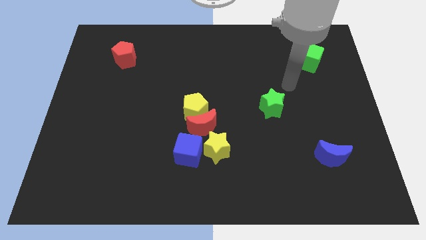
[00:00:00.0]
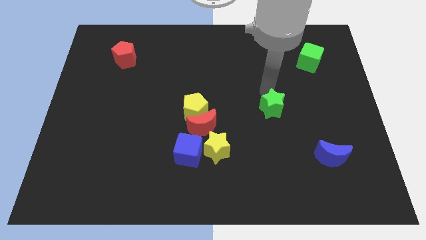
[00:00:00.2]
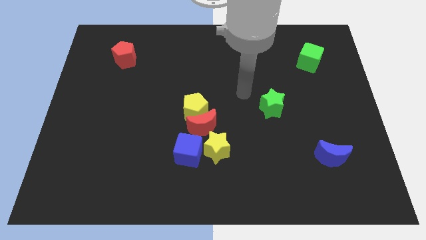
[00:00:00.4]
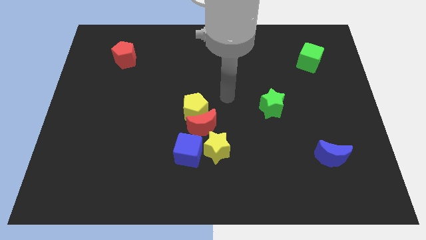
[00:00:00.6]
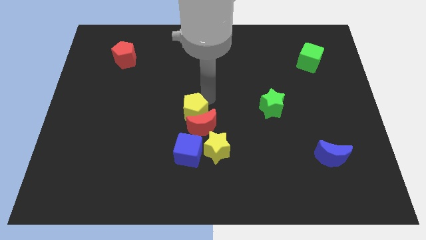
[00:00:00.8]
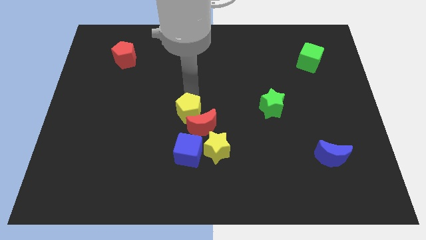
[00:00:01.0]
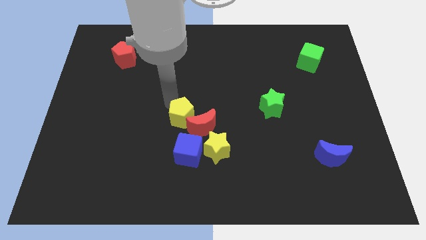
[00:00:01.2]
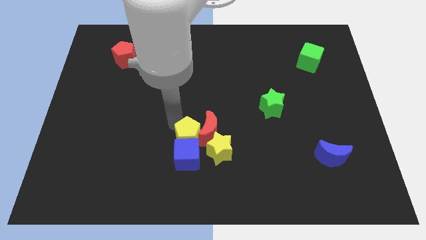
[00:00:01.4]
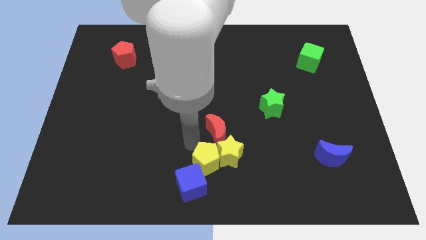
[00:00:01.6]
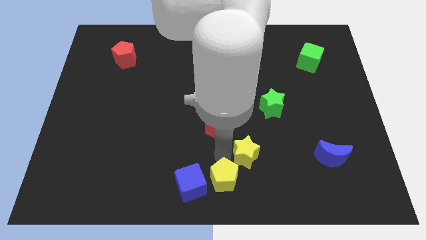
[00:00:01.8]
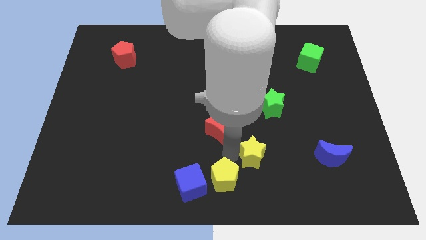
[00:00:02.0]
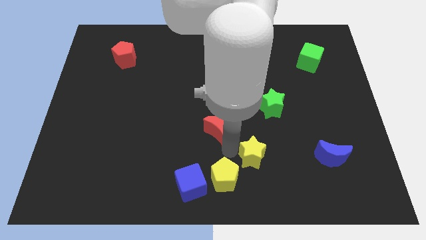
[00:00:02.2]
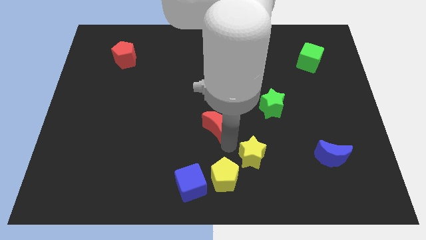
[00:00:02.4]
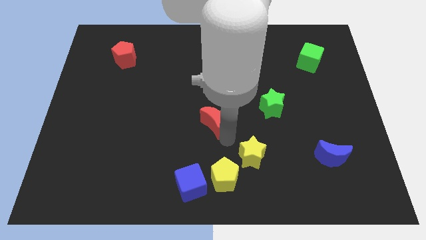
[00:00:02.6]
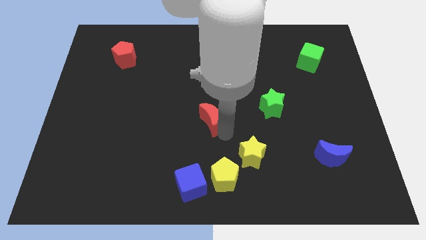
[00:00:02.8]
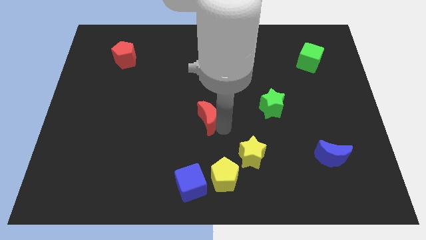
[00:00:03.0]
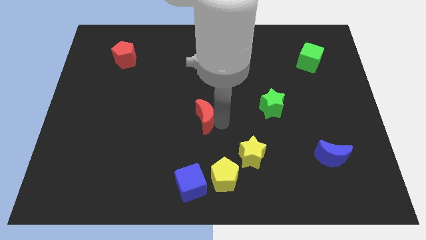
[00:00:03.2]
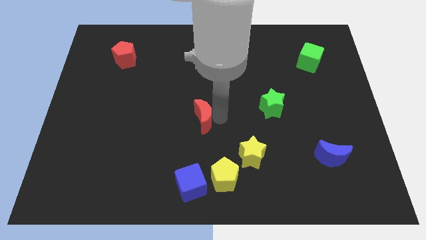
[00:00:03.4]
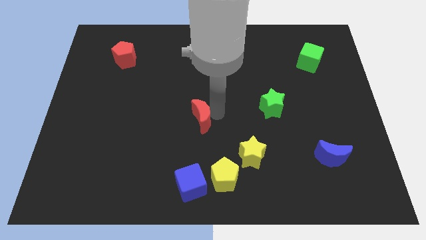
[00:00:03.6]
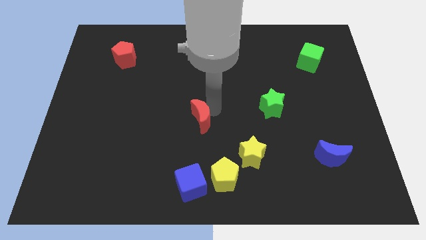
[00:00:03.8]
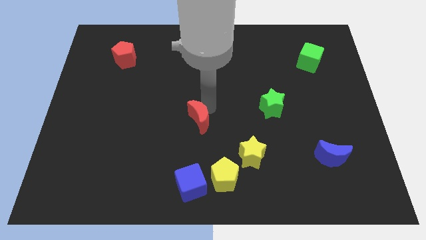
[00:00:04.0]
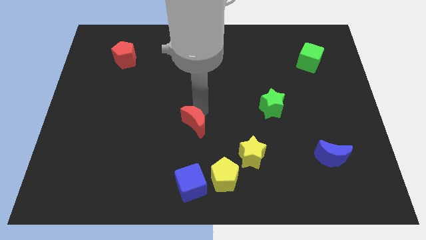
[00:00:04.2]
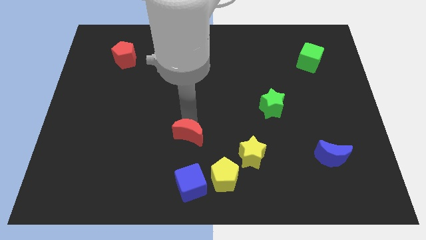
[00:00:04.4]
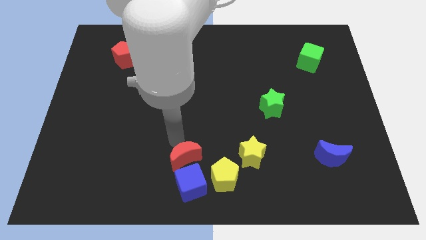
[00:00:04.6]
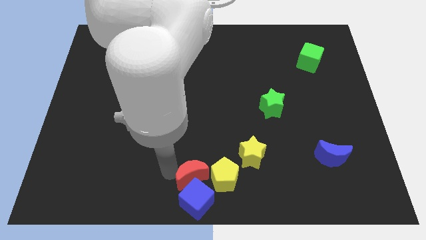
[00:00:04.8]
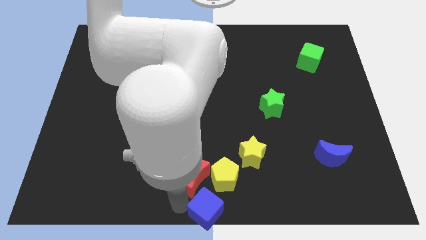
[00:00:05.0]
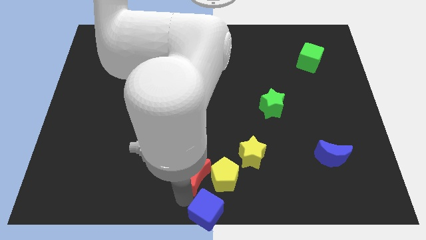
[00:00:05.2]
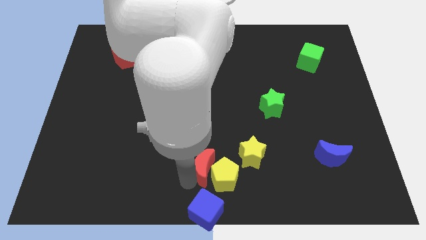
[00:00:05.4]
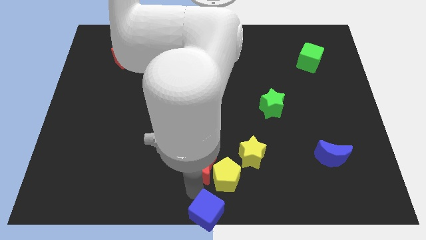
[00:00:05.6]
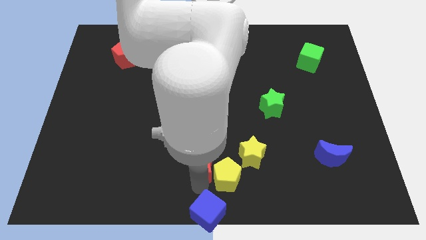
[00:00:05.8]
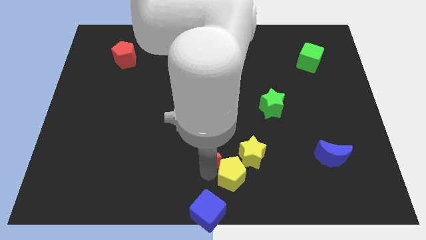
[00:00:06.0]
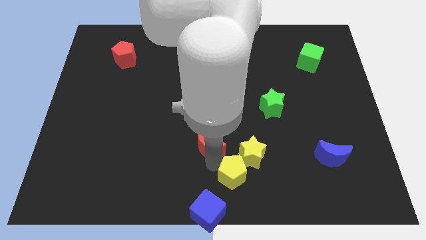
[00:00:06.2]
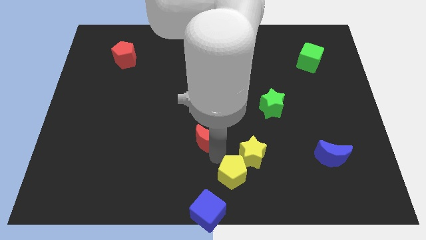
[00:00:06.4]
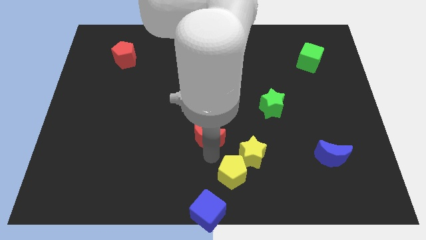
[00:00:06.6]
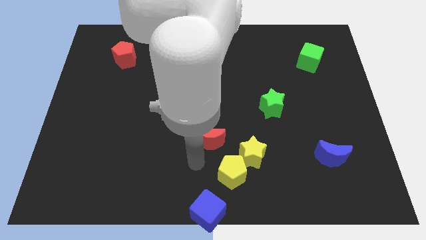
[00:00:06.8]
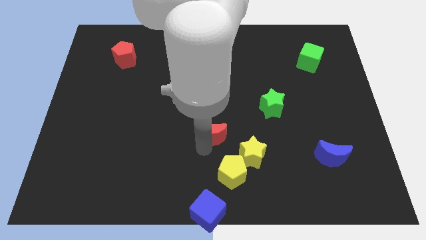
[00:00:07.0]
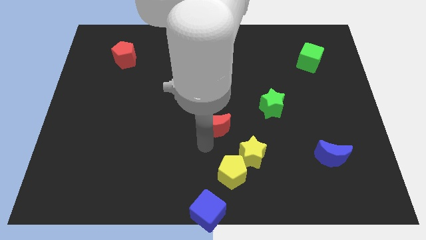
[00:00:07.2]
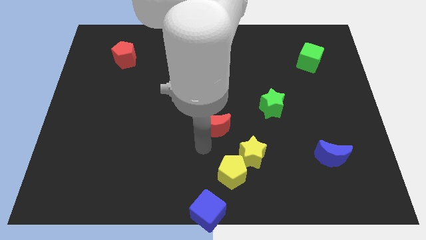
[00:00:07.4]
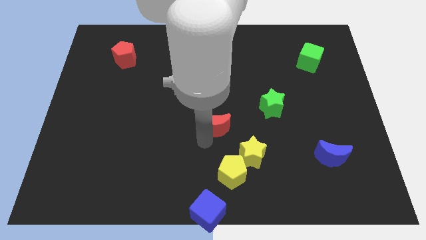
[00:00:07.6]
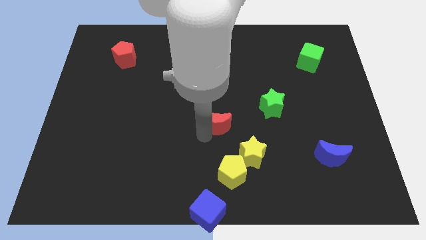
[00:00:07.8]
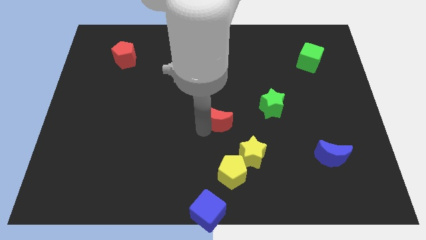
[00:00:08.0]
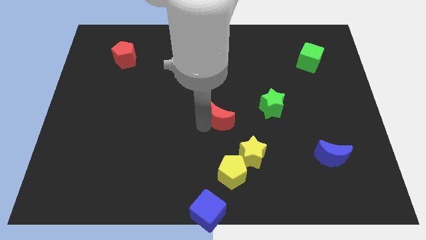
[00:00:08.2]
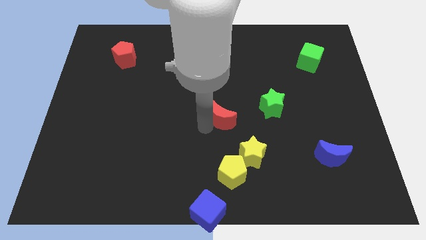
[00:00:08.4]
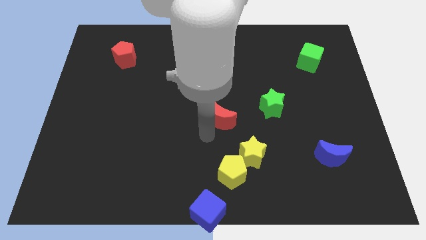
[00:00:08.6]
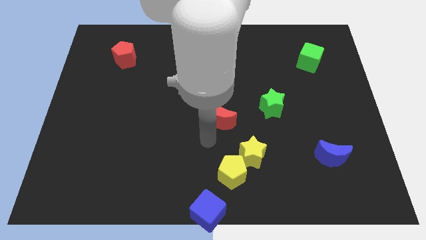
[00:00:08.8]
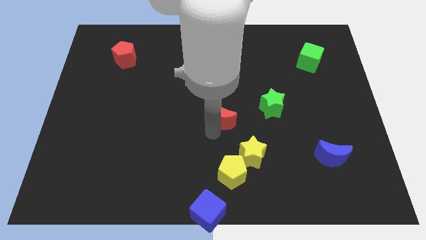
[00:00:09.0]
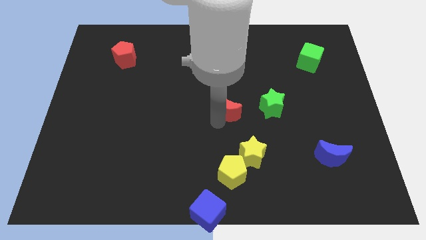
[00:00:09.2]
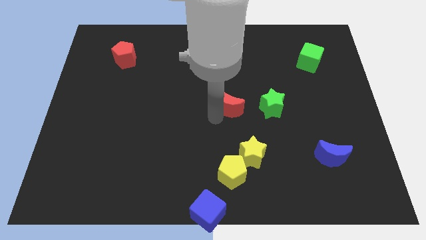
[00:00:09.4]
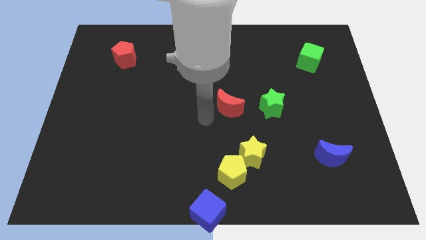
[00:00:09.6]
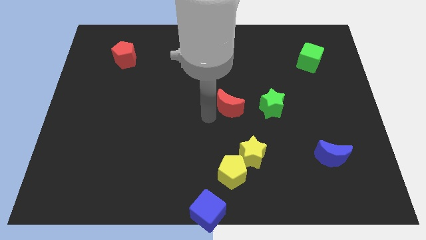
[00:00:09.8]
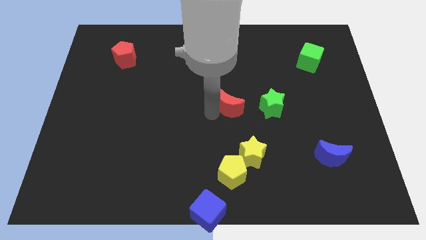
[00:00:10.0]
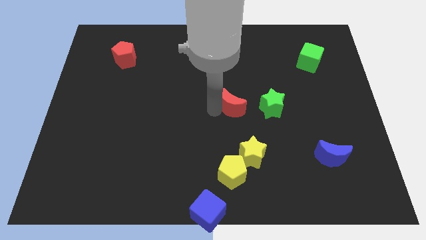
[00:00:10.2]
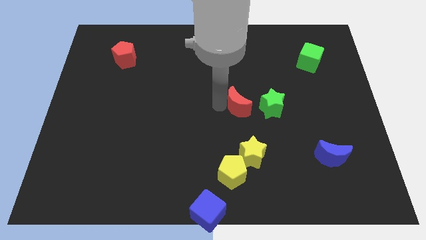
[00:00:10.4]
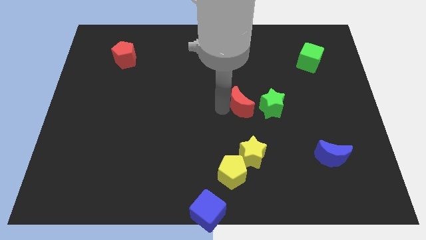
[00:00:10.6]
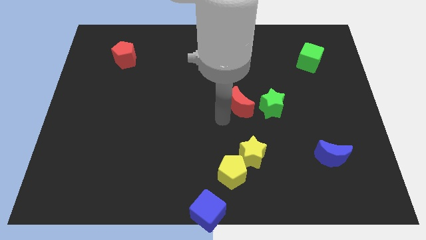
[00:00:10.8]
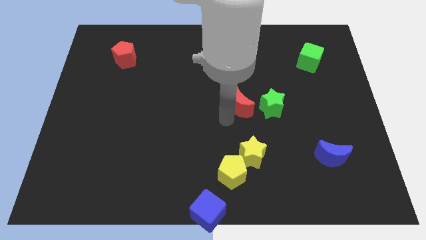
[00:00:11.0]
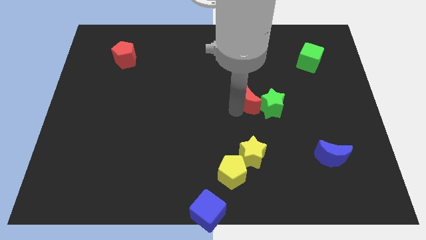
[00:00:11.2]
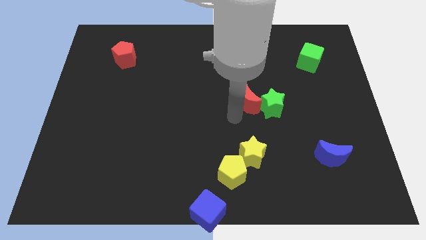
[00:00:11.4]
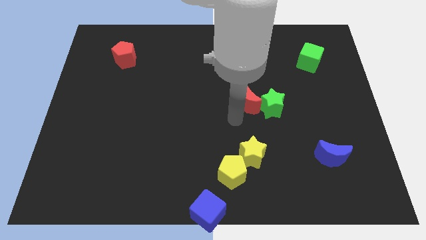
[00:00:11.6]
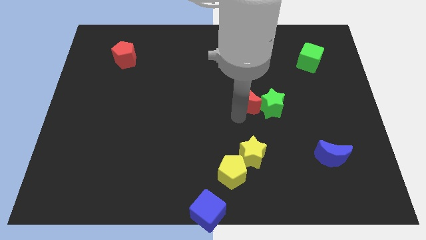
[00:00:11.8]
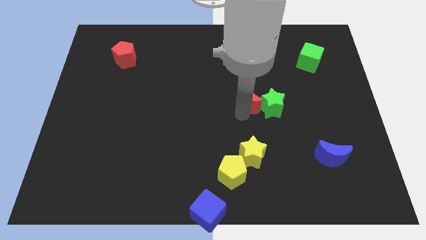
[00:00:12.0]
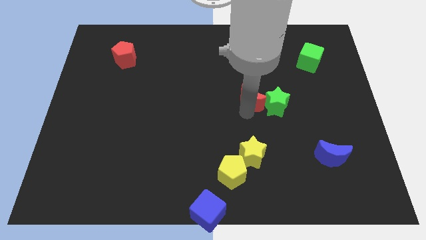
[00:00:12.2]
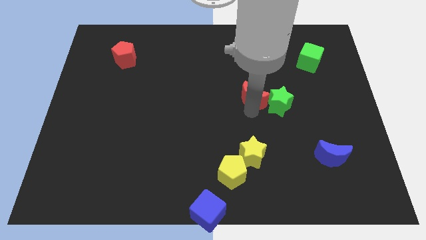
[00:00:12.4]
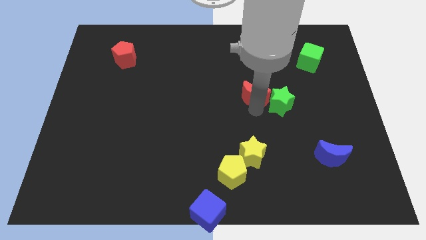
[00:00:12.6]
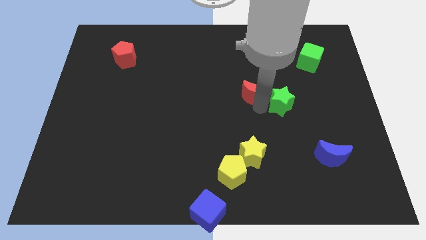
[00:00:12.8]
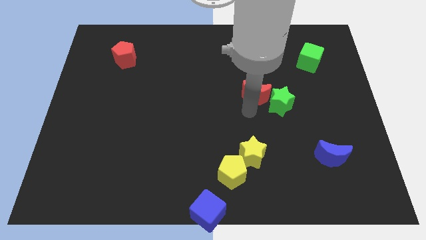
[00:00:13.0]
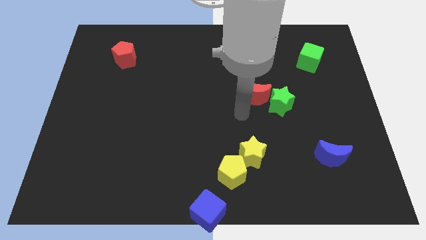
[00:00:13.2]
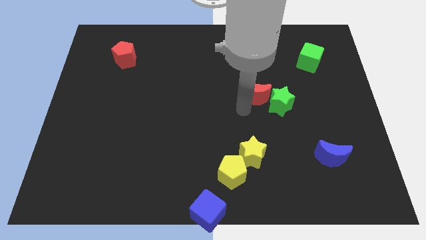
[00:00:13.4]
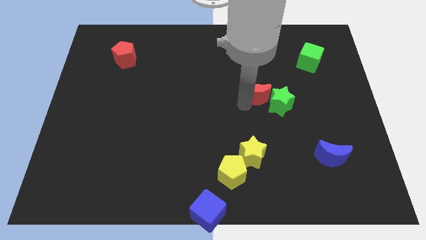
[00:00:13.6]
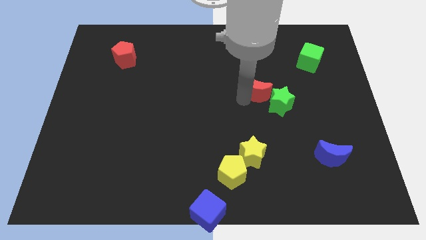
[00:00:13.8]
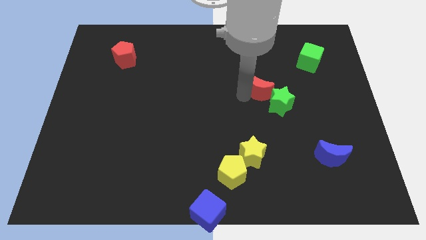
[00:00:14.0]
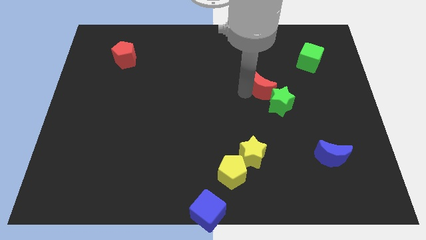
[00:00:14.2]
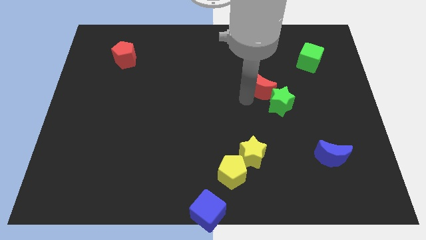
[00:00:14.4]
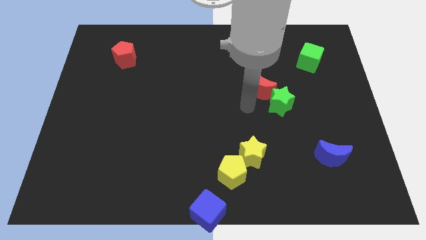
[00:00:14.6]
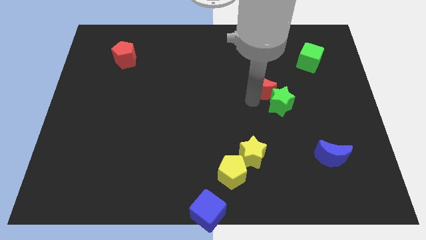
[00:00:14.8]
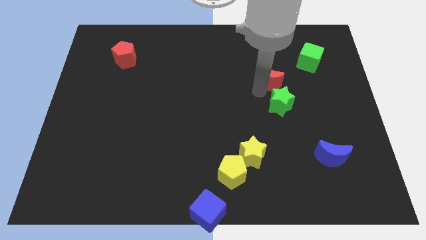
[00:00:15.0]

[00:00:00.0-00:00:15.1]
move the red moon upwards and right diagonally

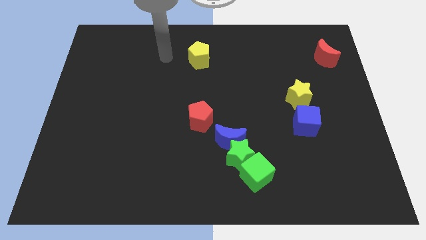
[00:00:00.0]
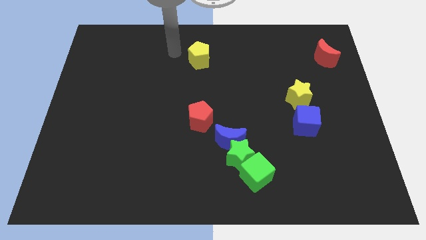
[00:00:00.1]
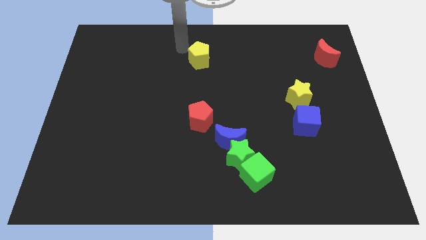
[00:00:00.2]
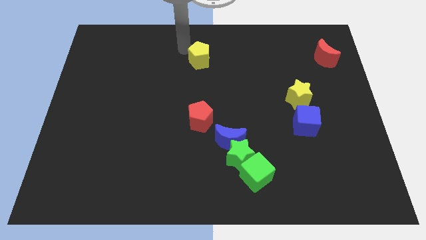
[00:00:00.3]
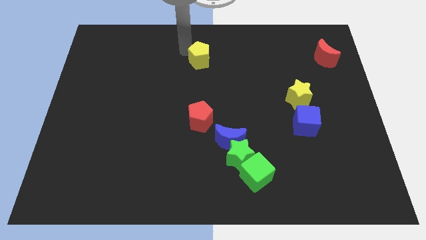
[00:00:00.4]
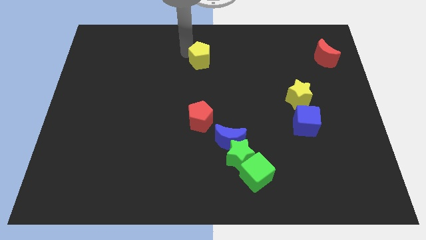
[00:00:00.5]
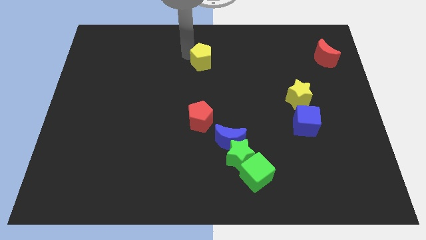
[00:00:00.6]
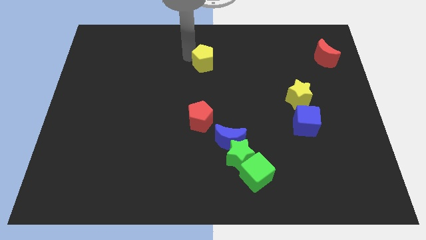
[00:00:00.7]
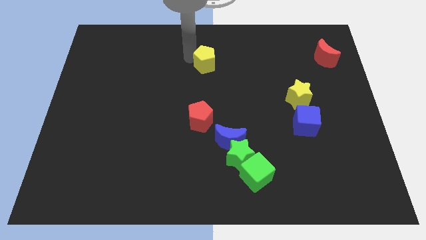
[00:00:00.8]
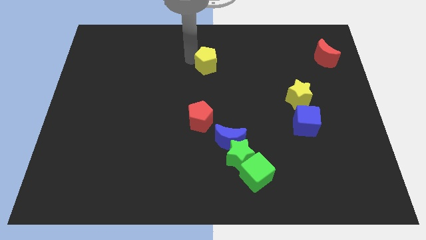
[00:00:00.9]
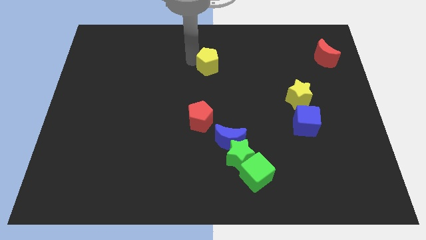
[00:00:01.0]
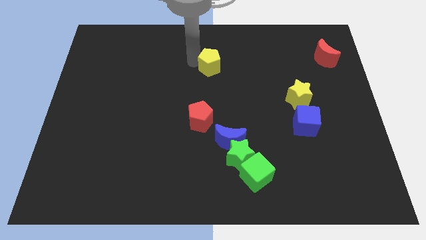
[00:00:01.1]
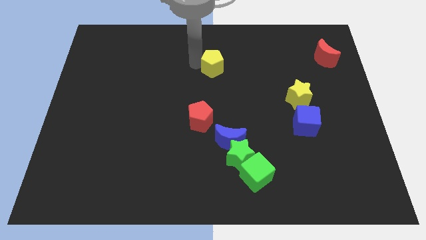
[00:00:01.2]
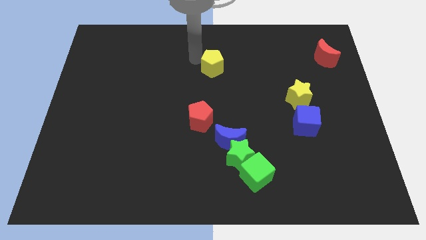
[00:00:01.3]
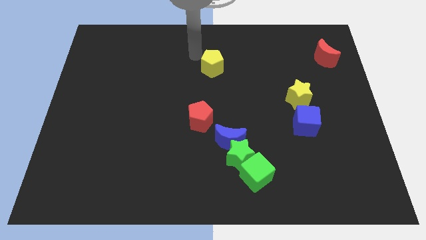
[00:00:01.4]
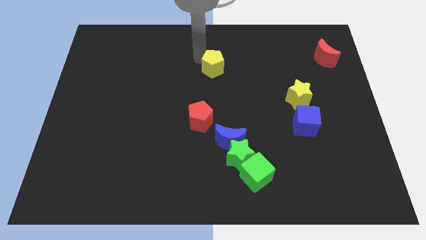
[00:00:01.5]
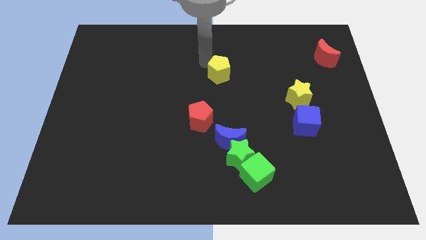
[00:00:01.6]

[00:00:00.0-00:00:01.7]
slightly move the yellow pentagon diagonally downwards and right
